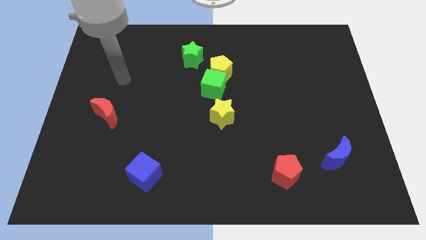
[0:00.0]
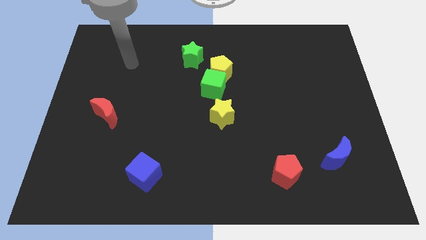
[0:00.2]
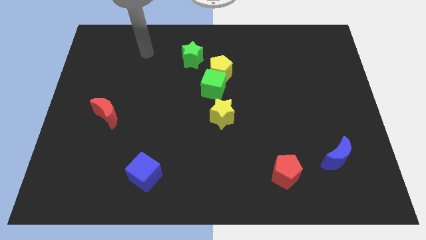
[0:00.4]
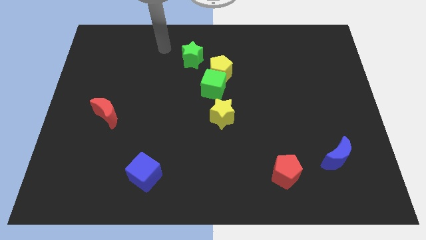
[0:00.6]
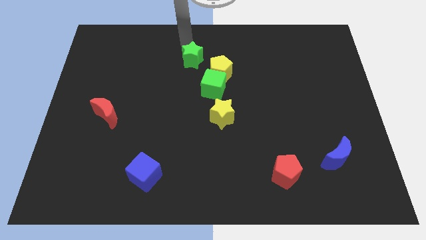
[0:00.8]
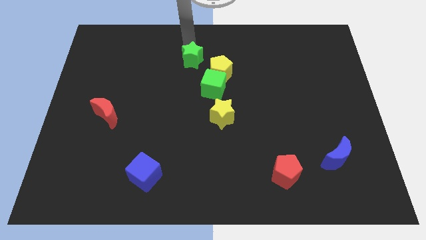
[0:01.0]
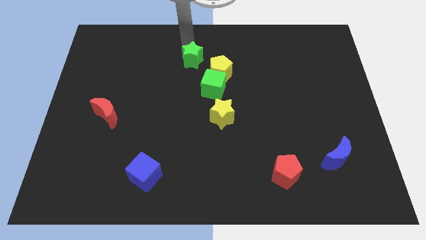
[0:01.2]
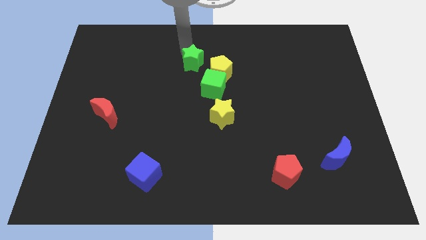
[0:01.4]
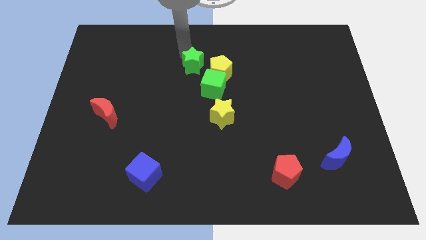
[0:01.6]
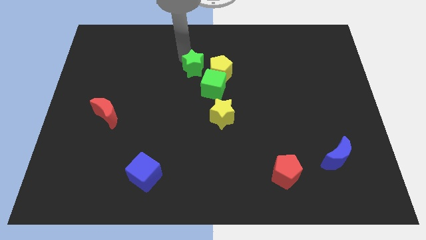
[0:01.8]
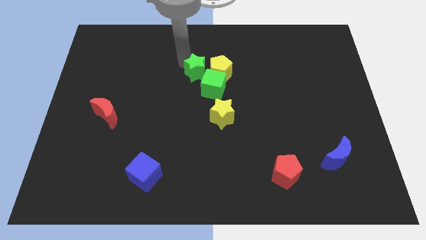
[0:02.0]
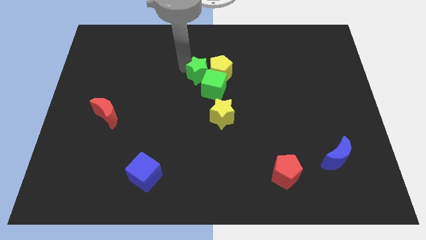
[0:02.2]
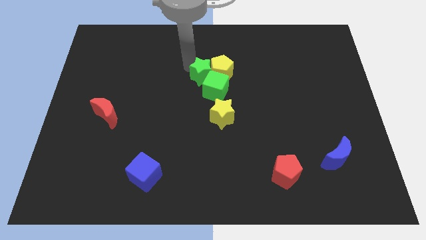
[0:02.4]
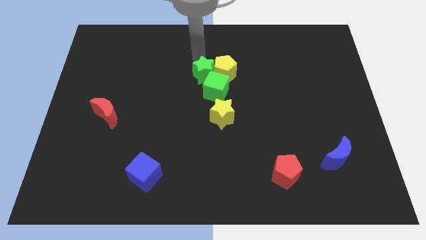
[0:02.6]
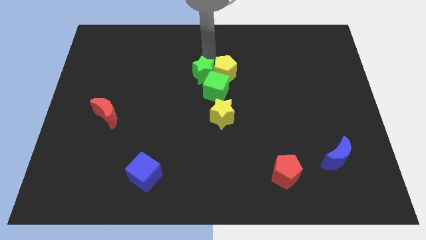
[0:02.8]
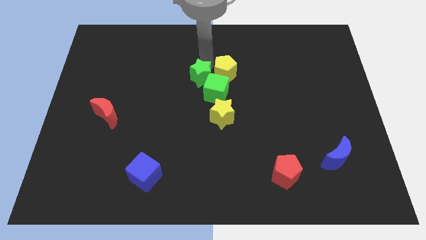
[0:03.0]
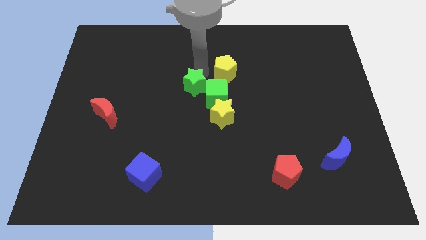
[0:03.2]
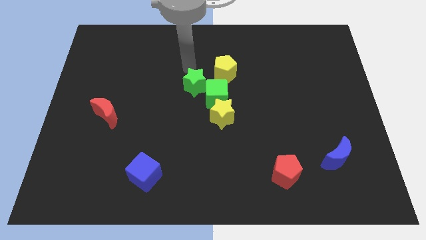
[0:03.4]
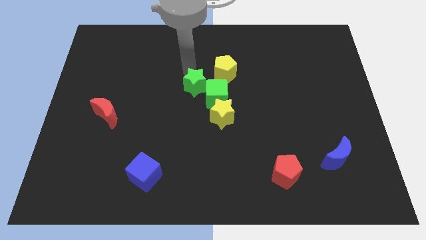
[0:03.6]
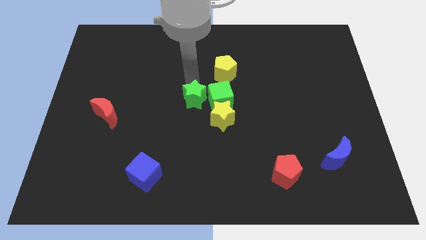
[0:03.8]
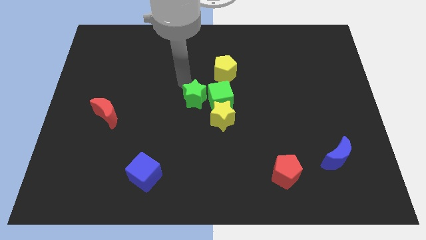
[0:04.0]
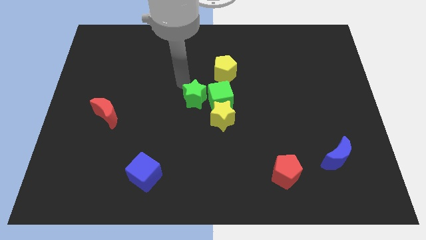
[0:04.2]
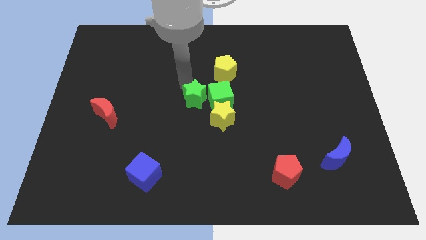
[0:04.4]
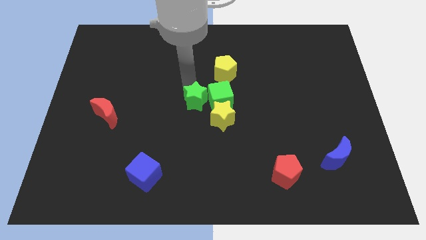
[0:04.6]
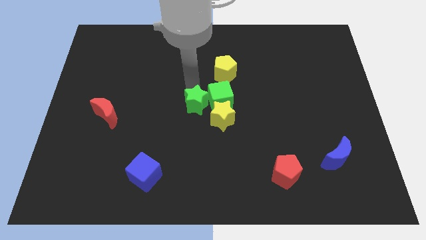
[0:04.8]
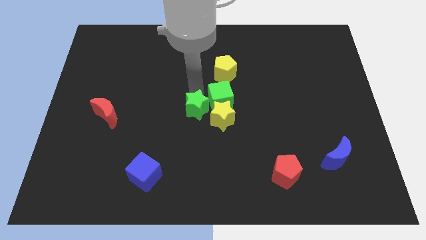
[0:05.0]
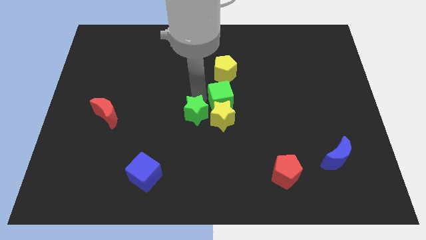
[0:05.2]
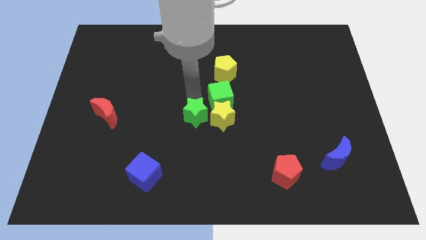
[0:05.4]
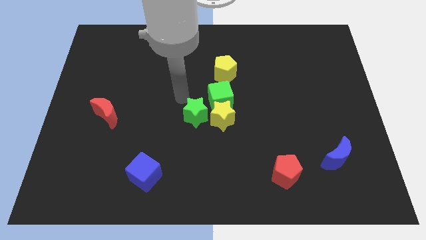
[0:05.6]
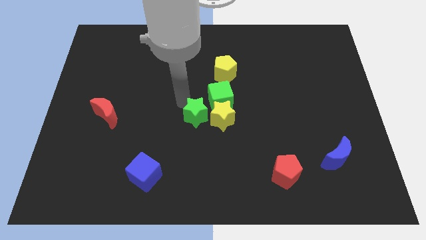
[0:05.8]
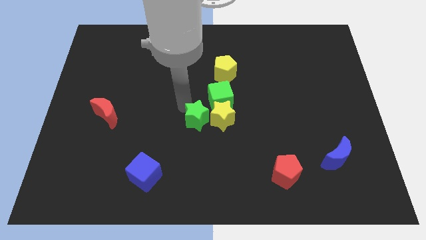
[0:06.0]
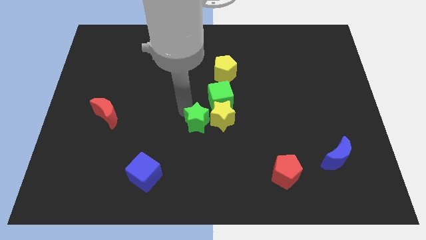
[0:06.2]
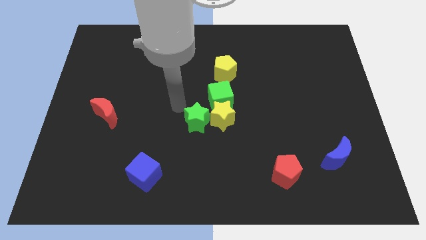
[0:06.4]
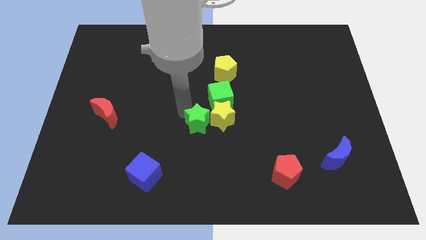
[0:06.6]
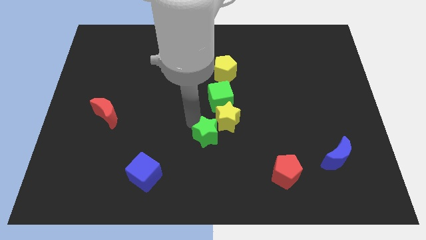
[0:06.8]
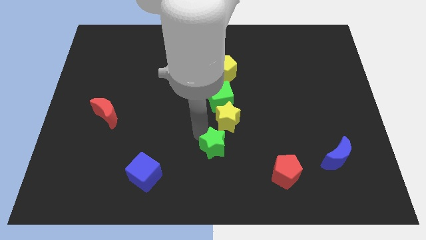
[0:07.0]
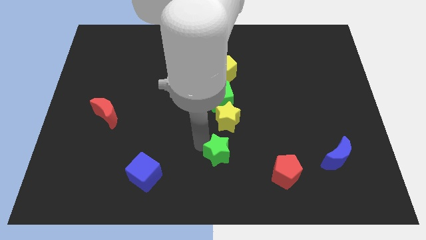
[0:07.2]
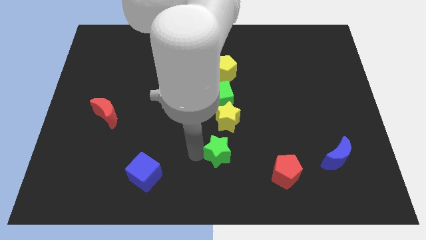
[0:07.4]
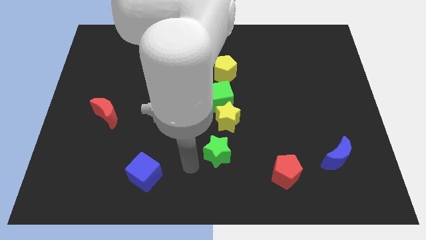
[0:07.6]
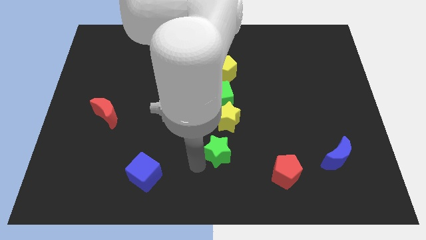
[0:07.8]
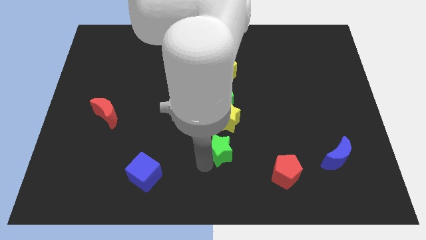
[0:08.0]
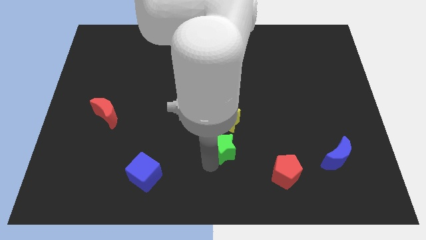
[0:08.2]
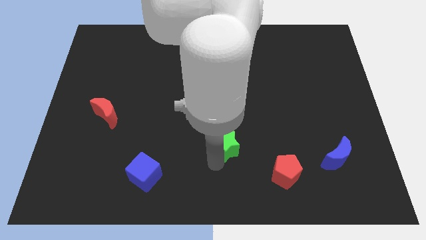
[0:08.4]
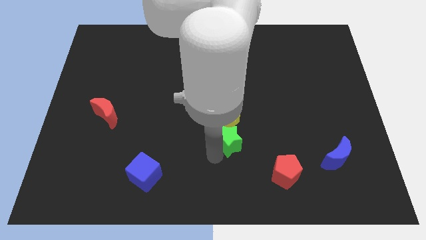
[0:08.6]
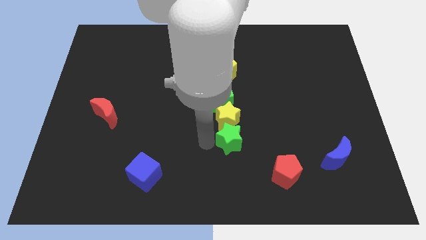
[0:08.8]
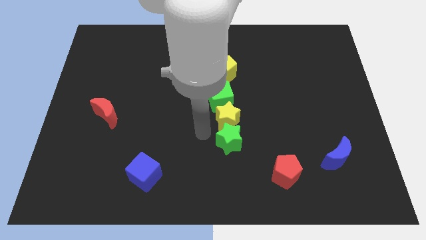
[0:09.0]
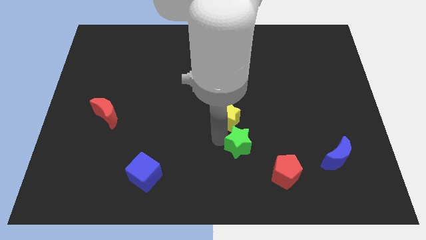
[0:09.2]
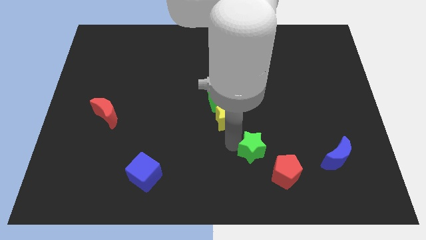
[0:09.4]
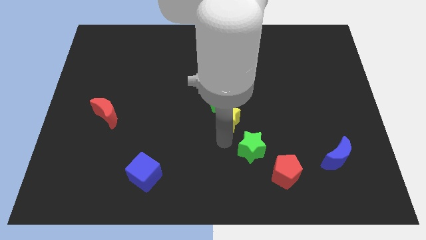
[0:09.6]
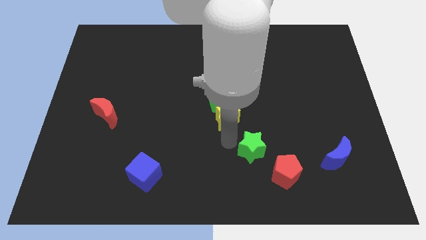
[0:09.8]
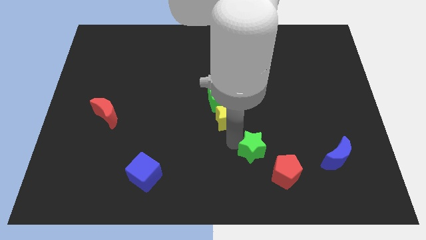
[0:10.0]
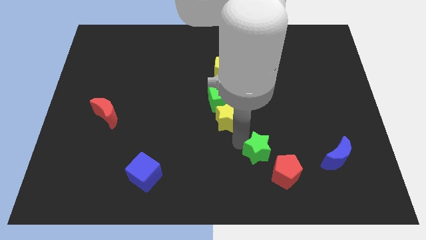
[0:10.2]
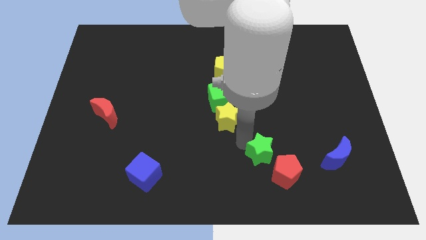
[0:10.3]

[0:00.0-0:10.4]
slide the green star just left of the blue moon

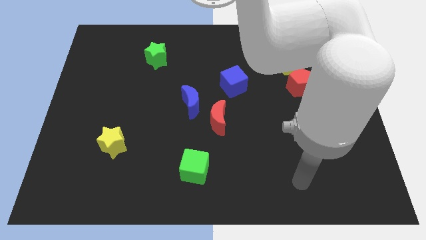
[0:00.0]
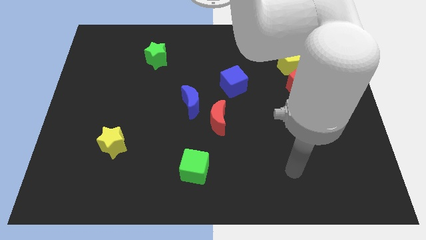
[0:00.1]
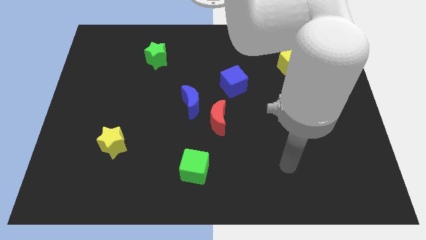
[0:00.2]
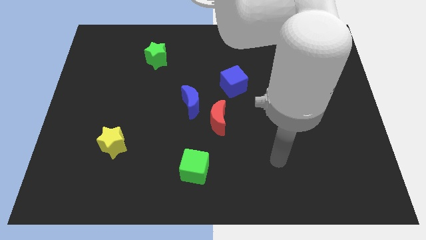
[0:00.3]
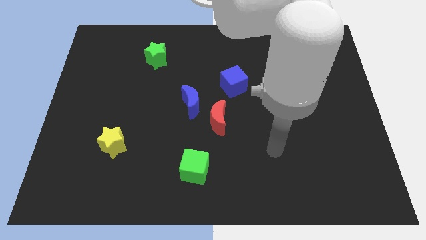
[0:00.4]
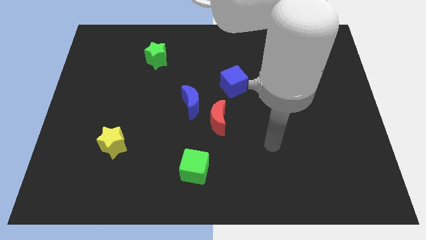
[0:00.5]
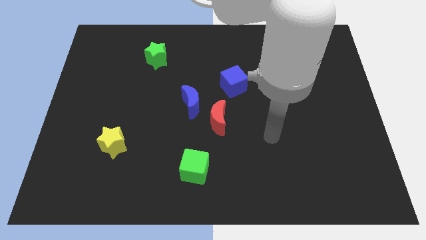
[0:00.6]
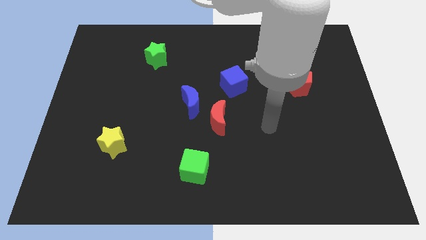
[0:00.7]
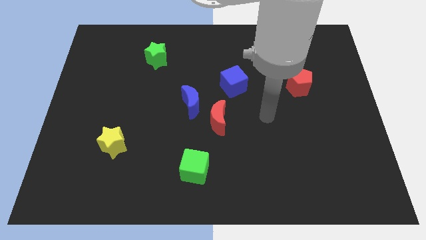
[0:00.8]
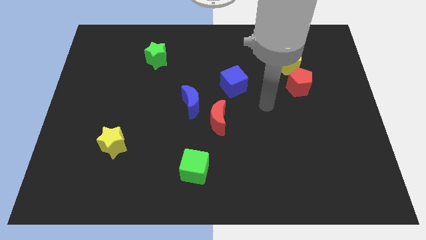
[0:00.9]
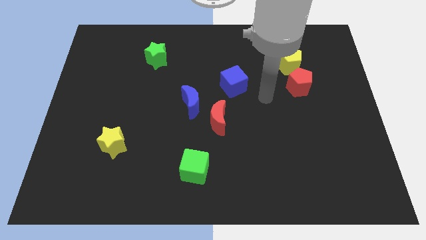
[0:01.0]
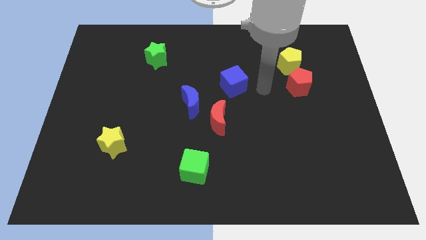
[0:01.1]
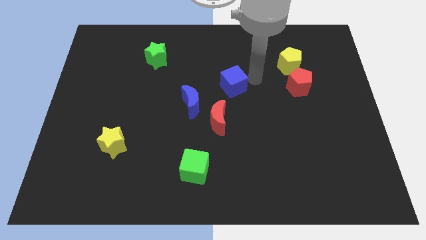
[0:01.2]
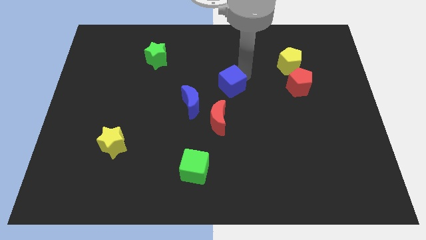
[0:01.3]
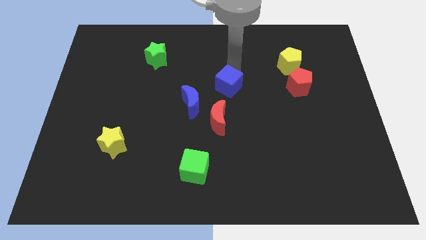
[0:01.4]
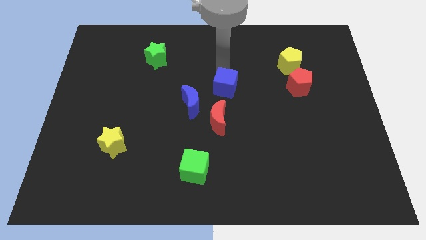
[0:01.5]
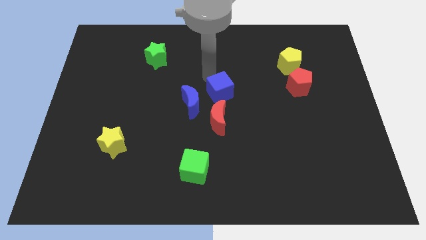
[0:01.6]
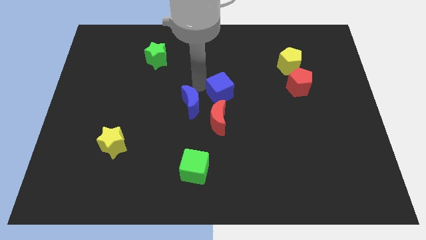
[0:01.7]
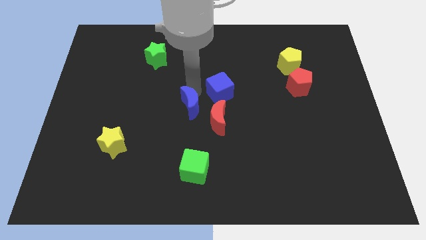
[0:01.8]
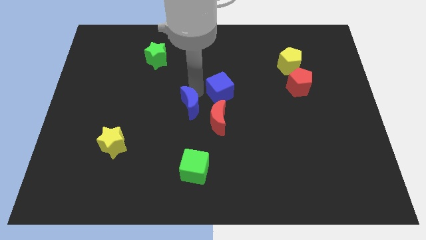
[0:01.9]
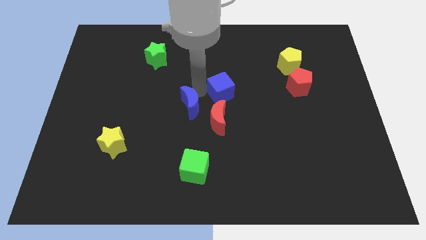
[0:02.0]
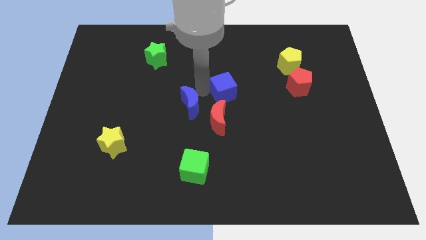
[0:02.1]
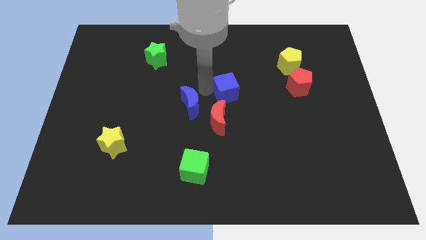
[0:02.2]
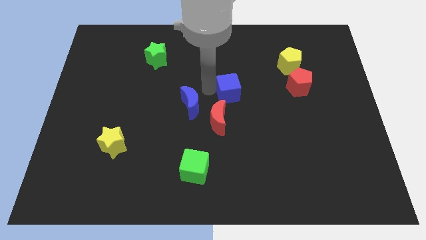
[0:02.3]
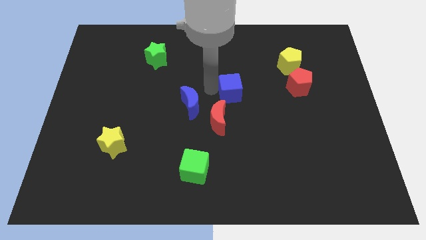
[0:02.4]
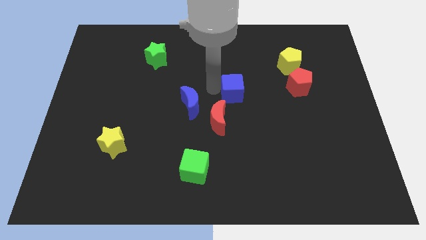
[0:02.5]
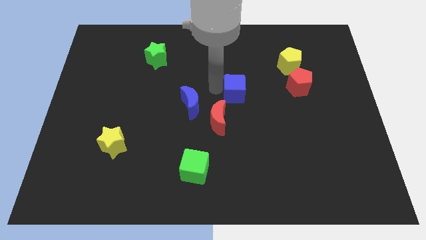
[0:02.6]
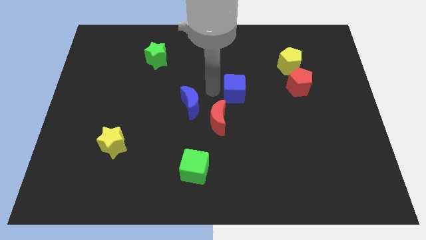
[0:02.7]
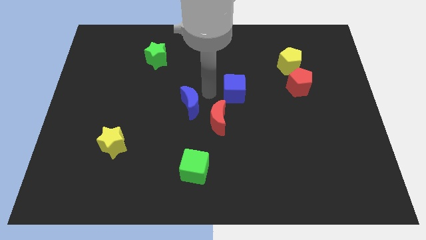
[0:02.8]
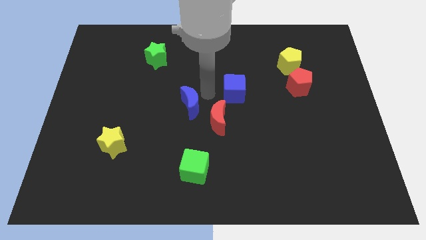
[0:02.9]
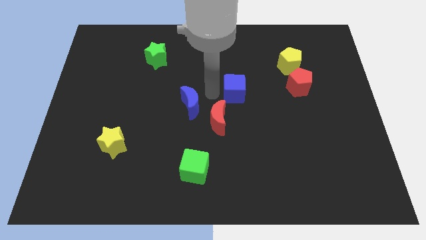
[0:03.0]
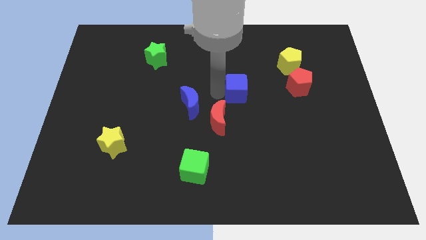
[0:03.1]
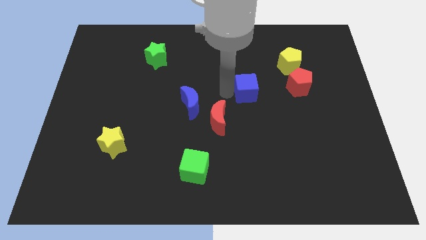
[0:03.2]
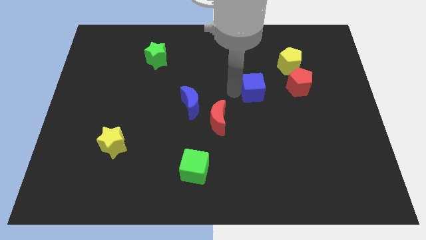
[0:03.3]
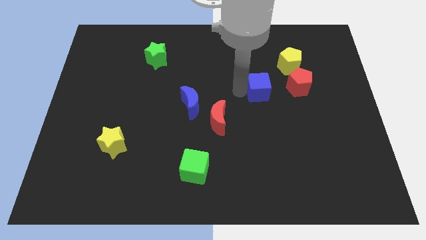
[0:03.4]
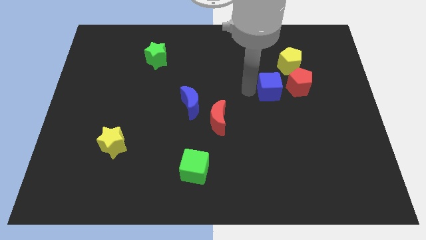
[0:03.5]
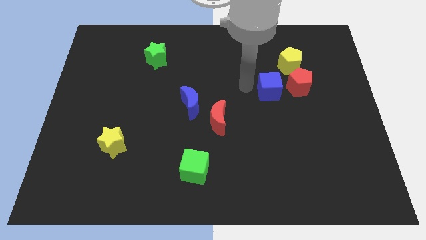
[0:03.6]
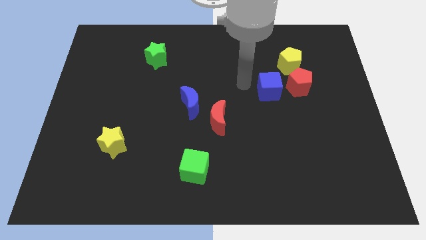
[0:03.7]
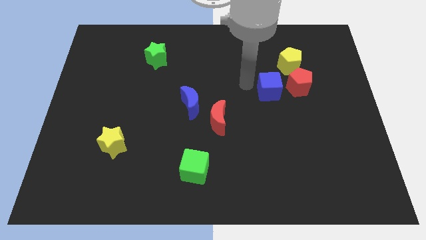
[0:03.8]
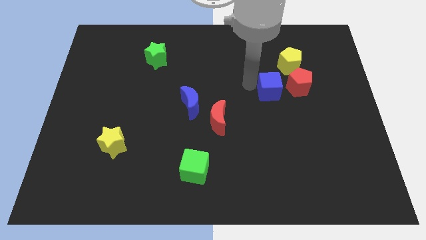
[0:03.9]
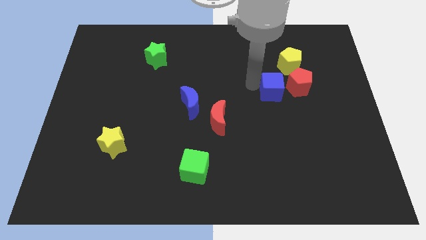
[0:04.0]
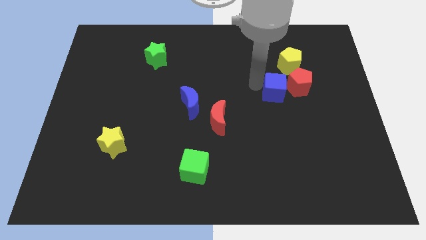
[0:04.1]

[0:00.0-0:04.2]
put the blue cube to the bottom of the yellow pentagon
